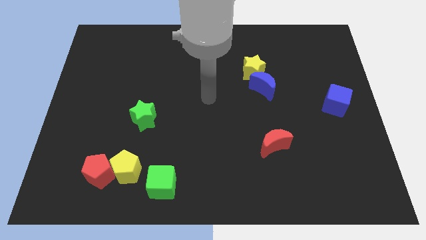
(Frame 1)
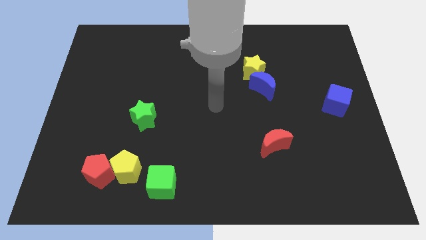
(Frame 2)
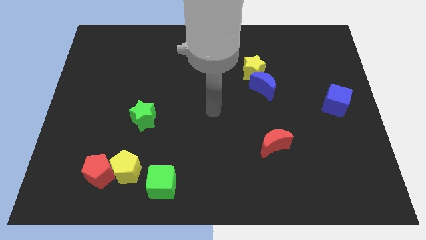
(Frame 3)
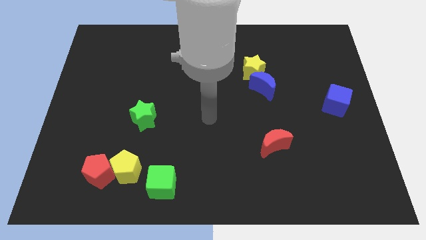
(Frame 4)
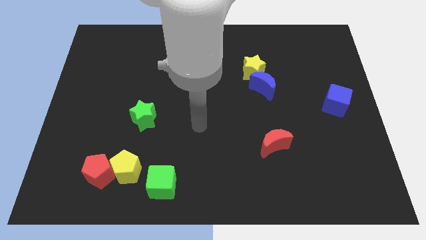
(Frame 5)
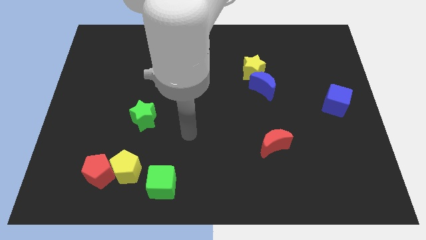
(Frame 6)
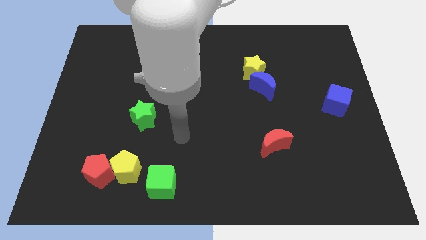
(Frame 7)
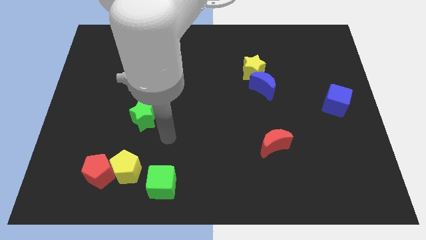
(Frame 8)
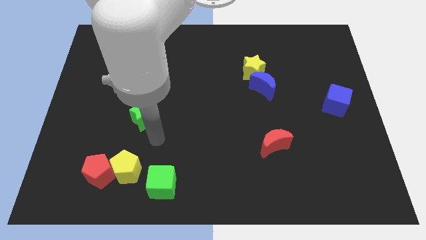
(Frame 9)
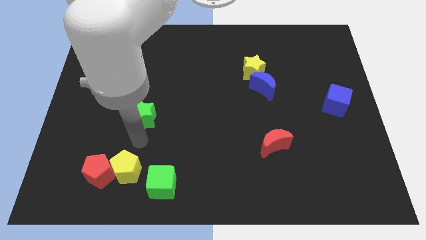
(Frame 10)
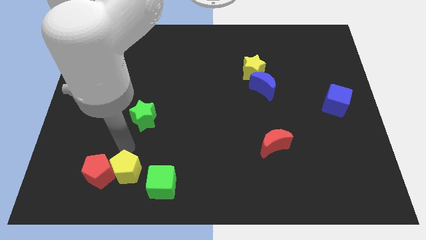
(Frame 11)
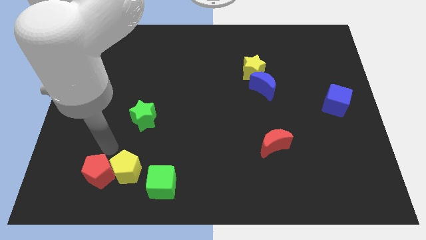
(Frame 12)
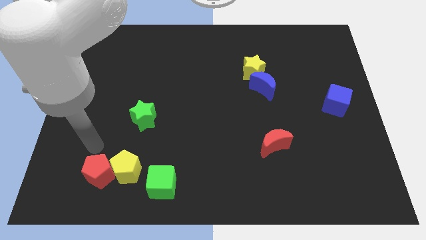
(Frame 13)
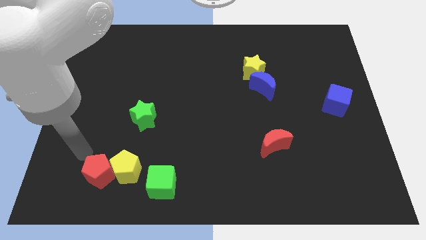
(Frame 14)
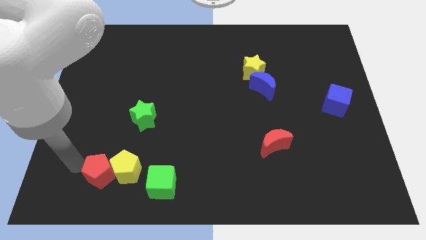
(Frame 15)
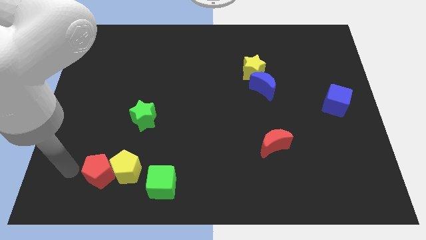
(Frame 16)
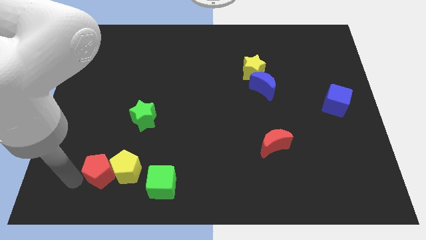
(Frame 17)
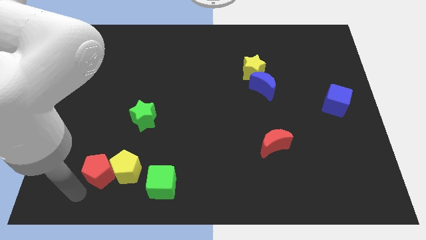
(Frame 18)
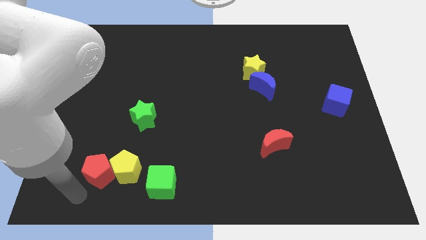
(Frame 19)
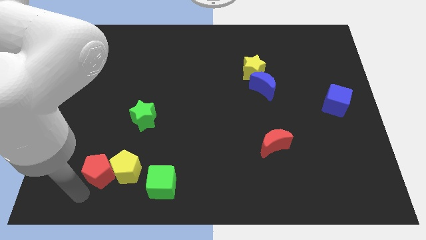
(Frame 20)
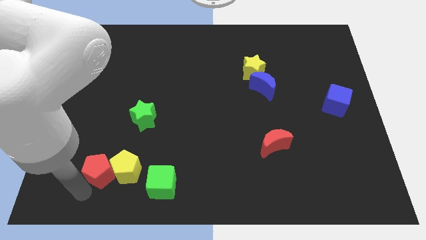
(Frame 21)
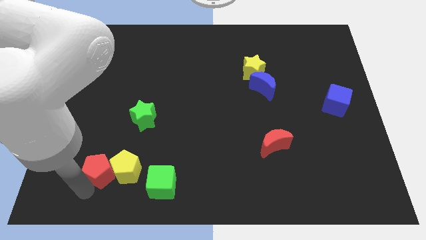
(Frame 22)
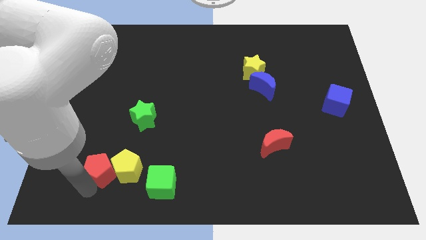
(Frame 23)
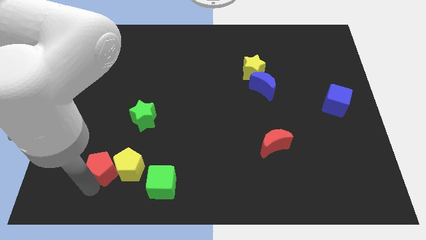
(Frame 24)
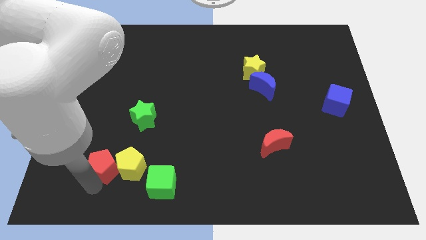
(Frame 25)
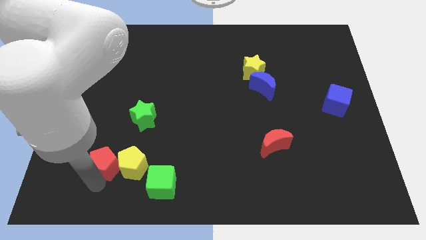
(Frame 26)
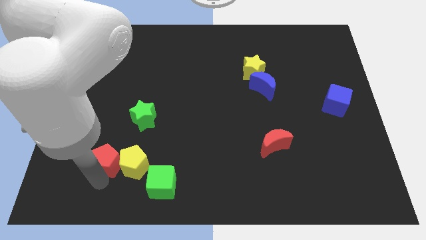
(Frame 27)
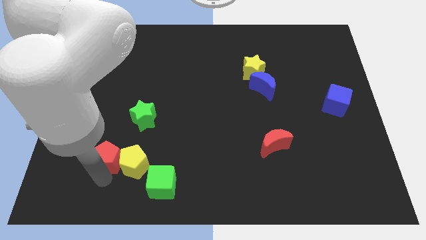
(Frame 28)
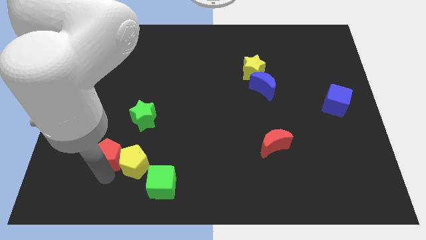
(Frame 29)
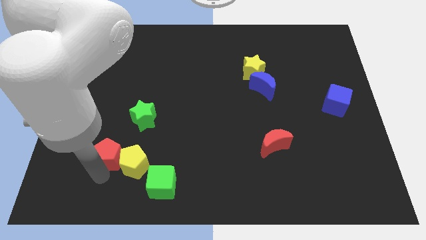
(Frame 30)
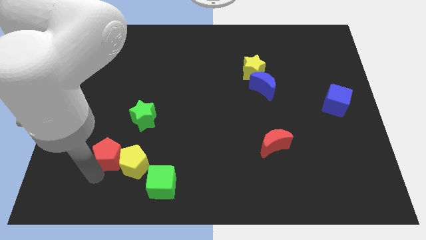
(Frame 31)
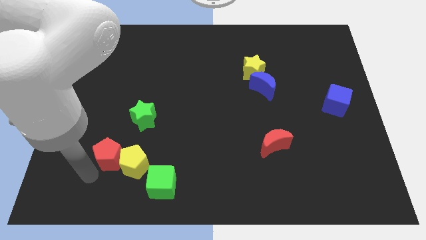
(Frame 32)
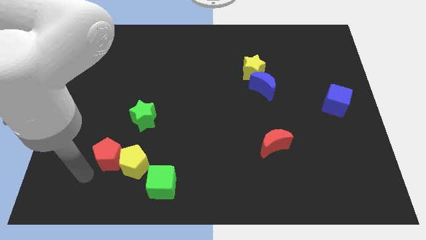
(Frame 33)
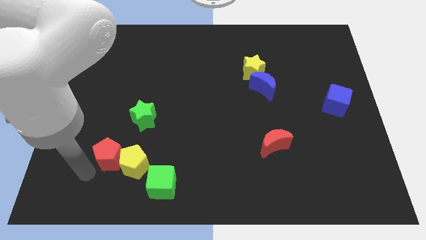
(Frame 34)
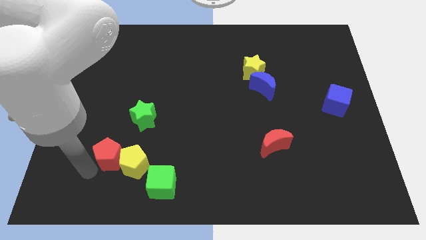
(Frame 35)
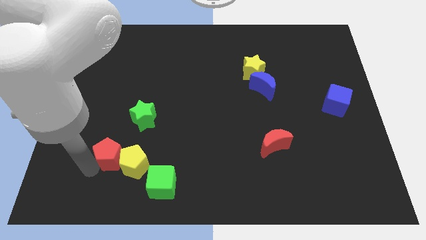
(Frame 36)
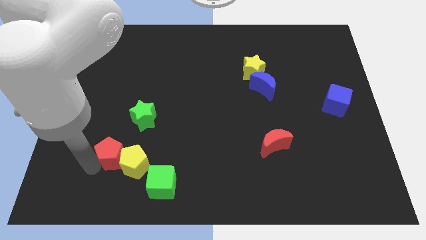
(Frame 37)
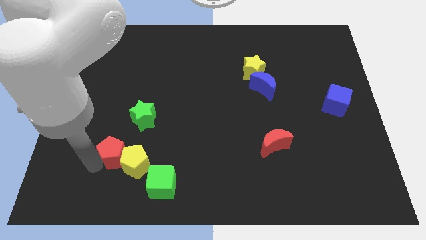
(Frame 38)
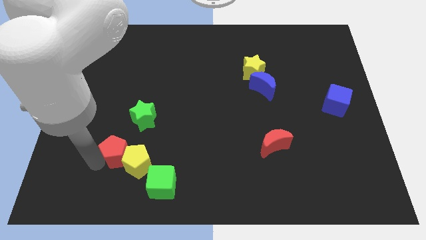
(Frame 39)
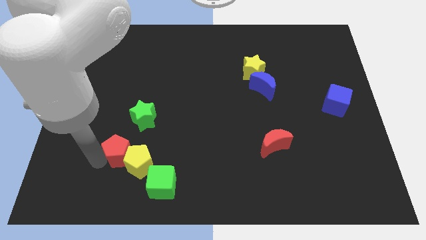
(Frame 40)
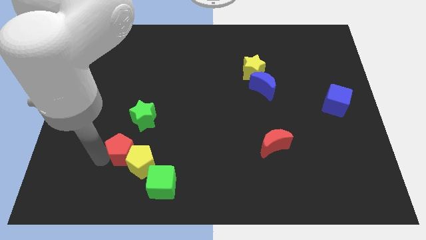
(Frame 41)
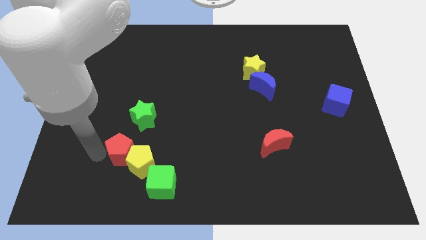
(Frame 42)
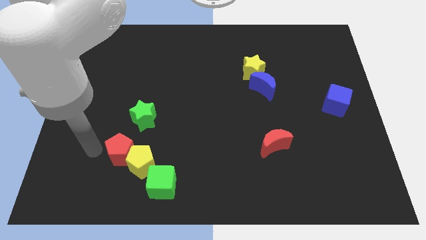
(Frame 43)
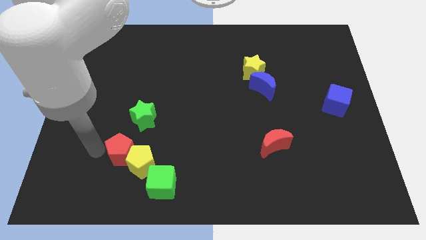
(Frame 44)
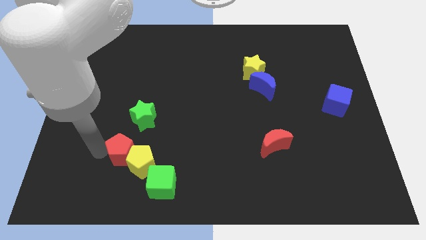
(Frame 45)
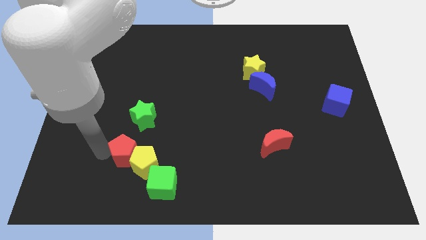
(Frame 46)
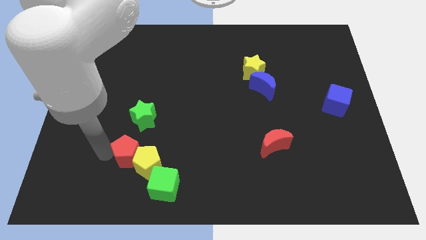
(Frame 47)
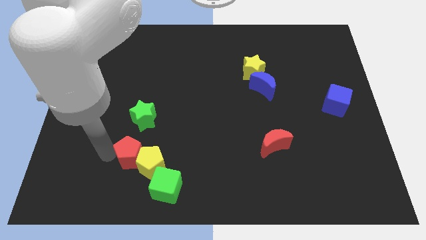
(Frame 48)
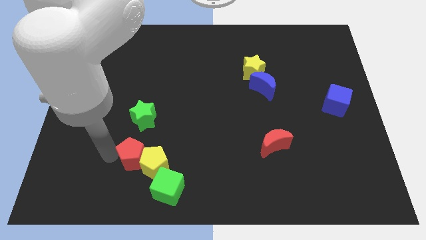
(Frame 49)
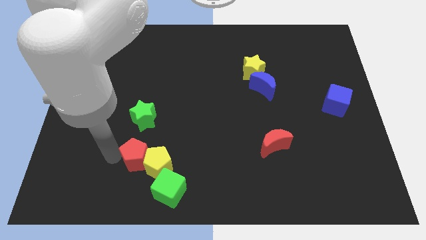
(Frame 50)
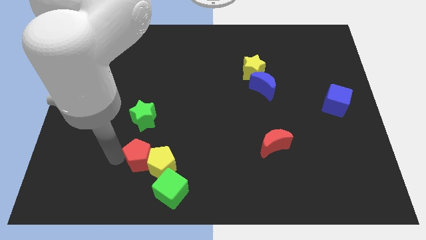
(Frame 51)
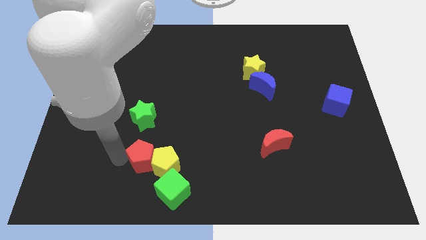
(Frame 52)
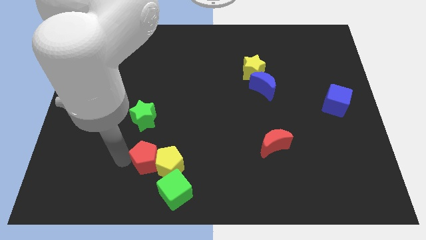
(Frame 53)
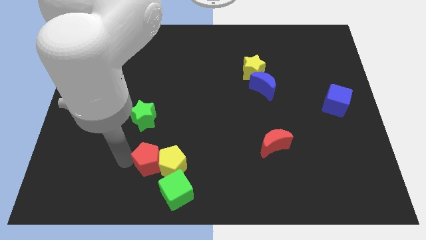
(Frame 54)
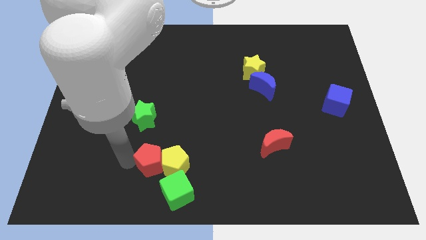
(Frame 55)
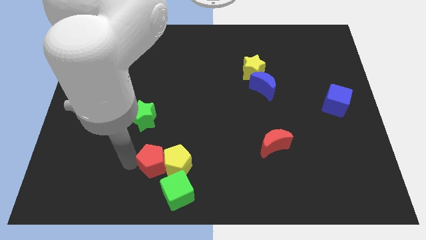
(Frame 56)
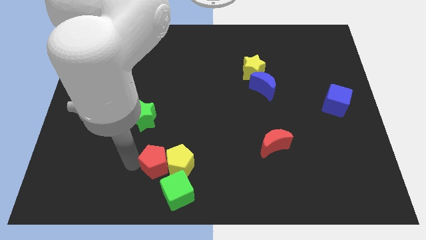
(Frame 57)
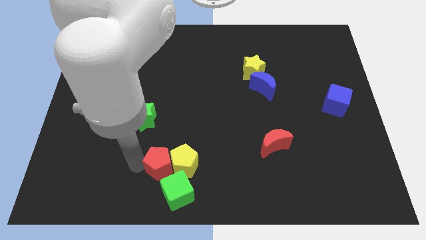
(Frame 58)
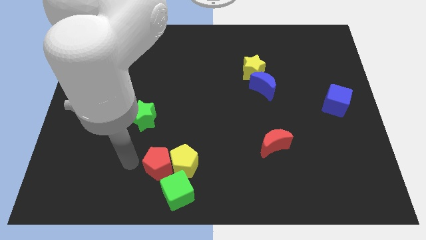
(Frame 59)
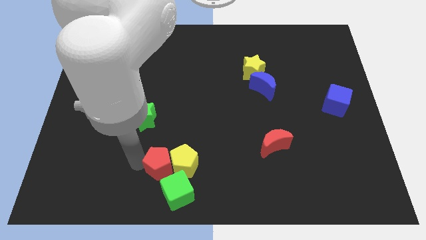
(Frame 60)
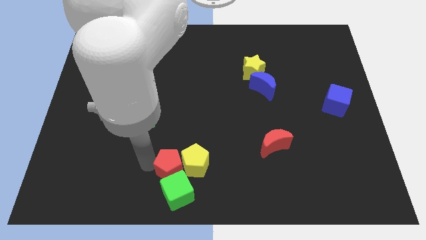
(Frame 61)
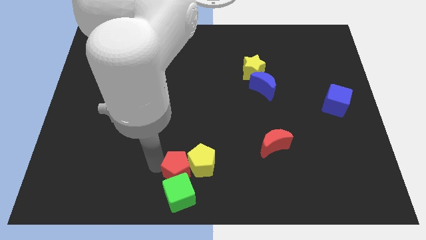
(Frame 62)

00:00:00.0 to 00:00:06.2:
move the red pentagon diagonally up and to the right of the green cube
